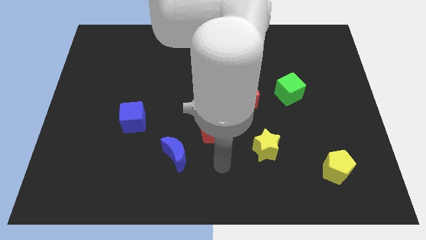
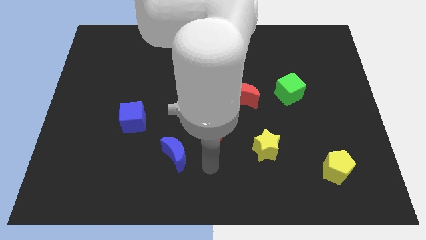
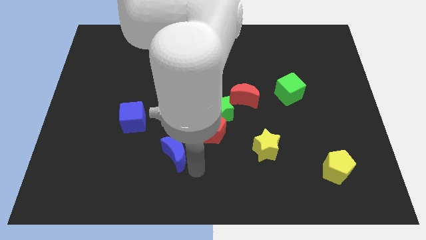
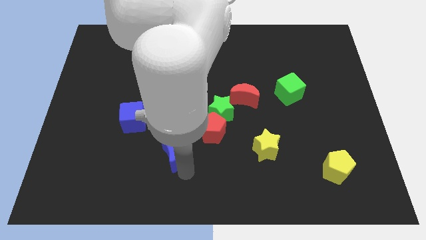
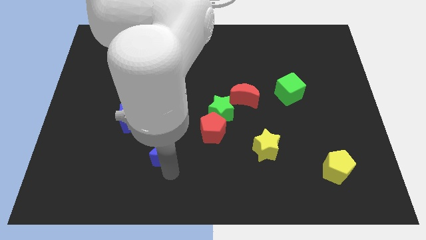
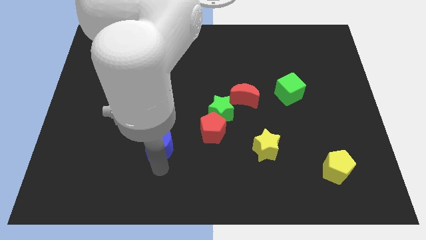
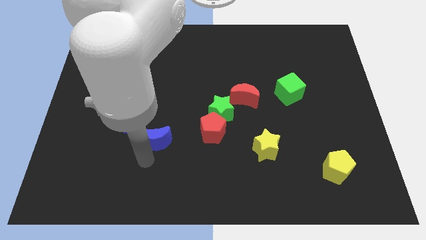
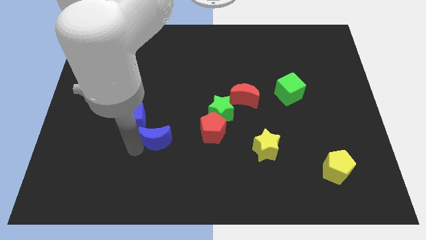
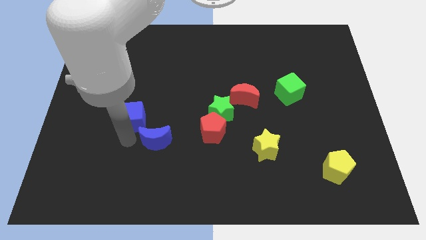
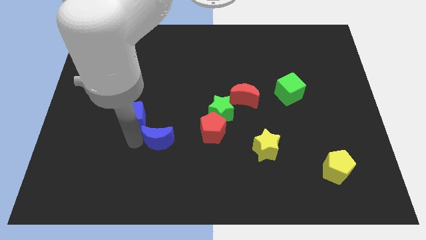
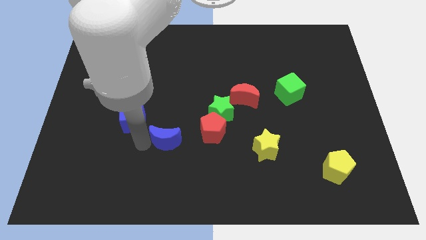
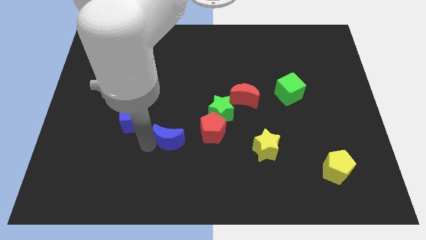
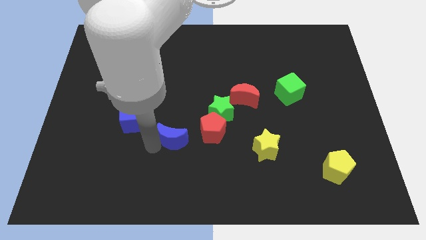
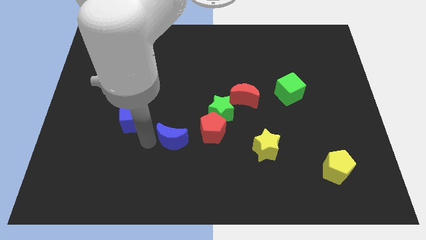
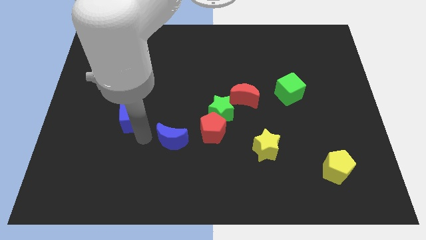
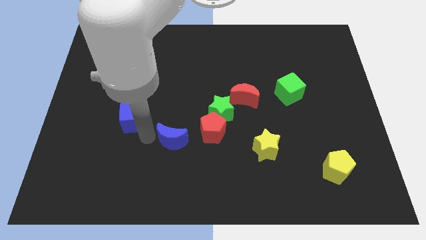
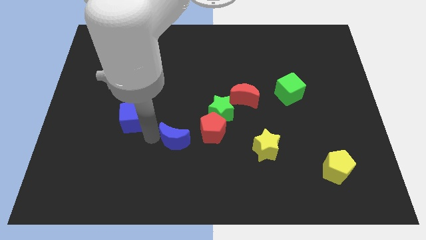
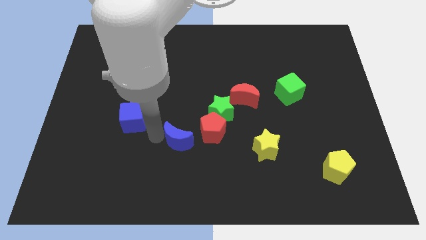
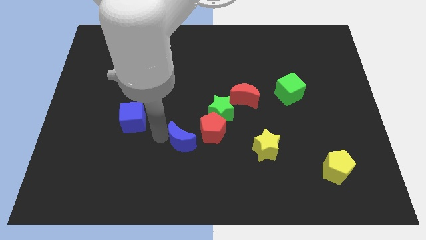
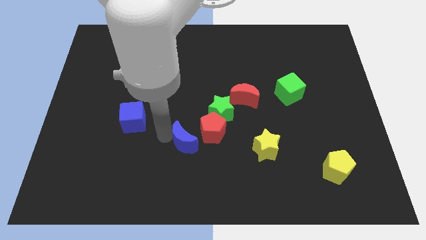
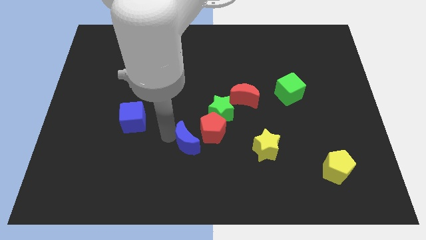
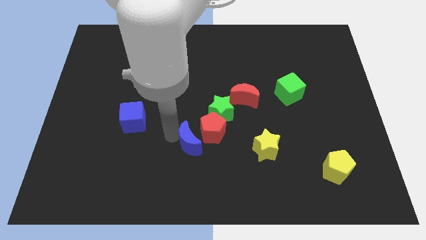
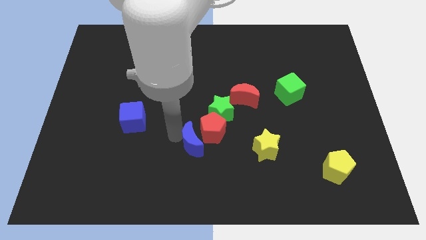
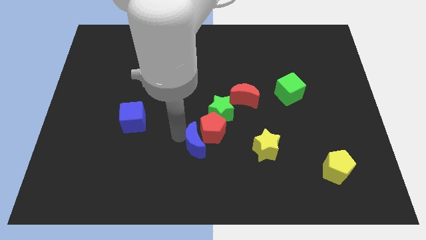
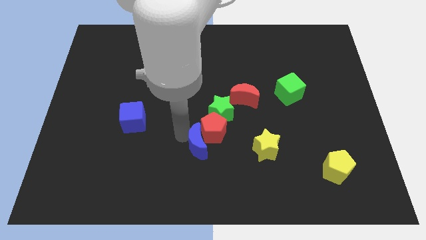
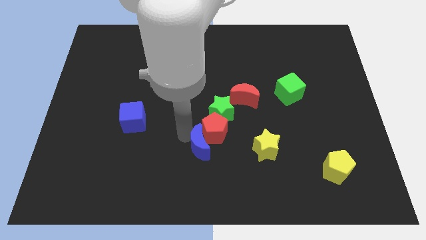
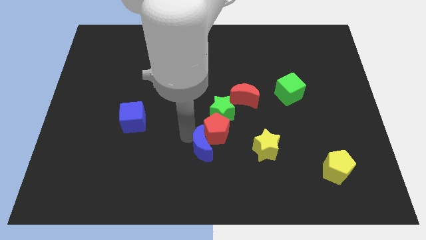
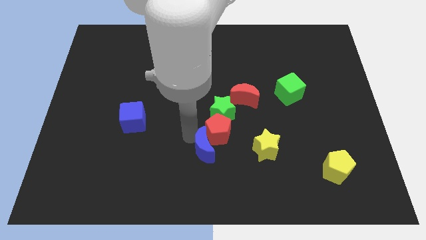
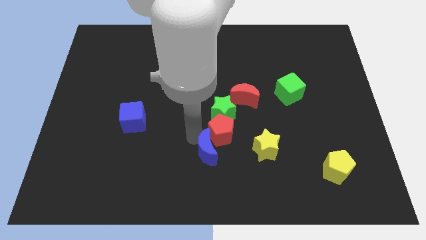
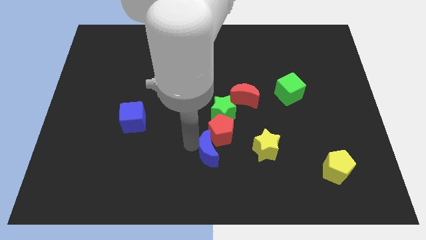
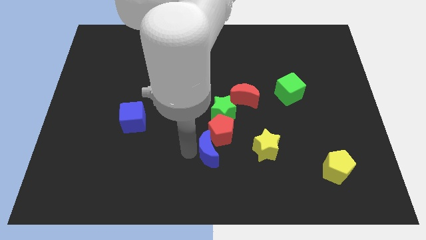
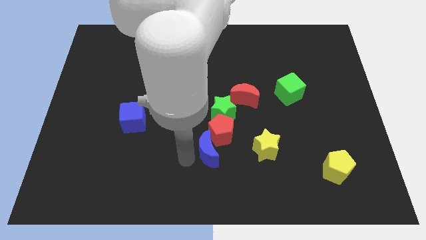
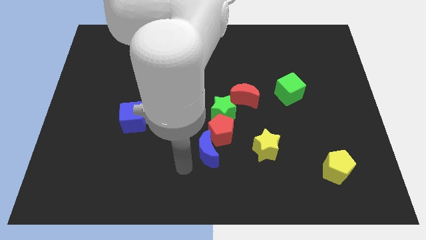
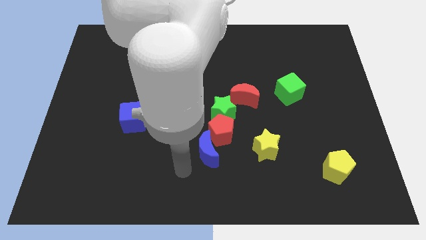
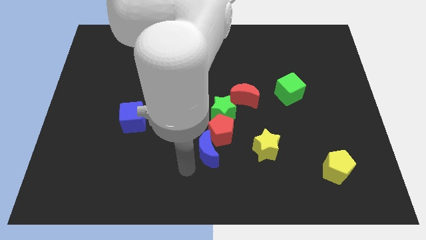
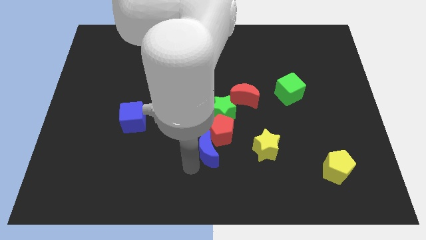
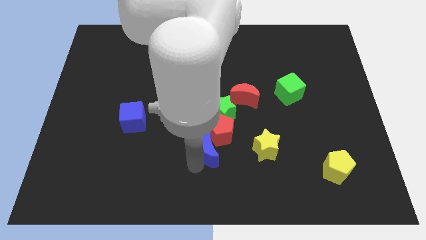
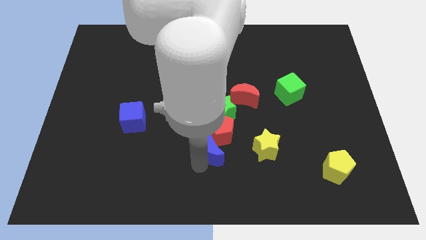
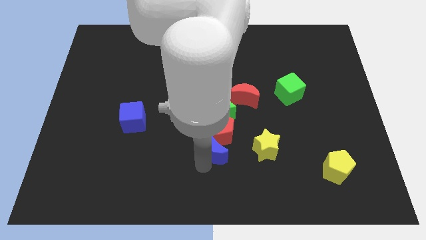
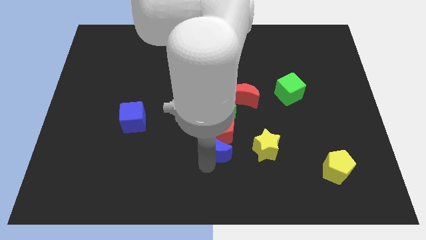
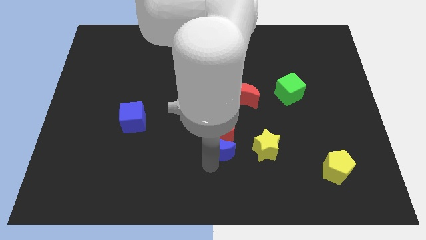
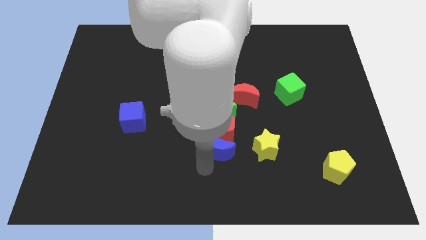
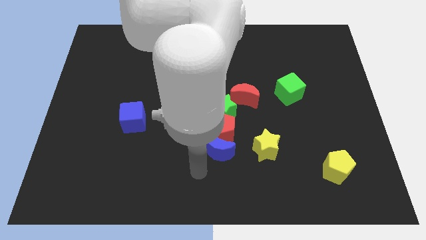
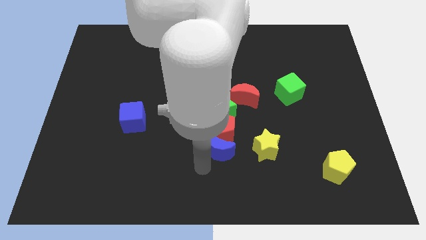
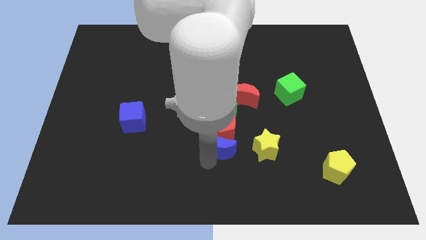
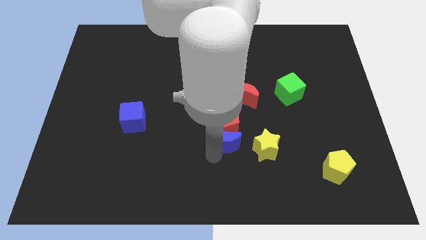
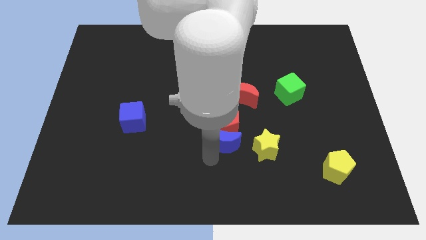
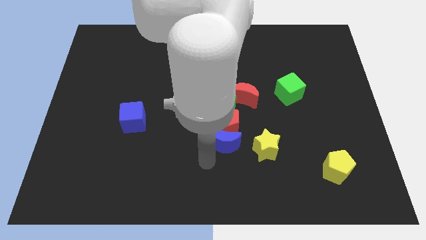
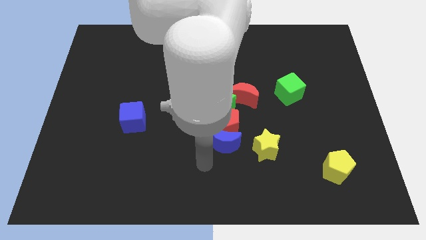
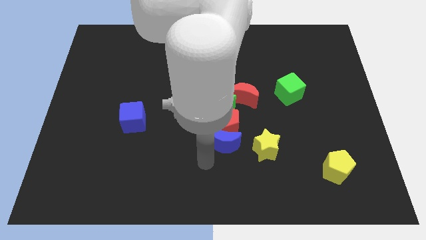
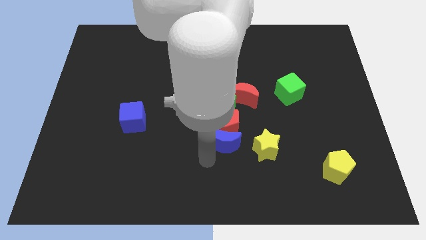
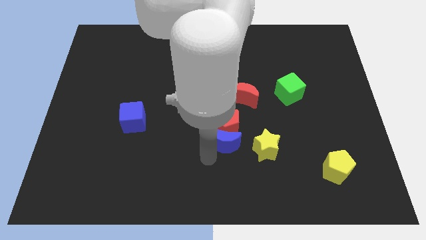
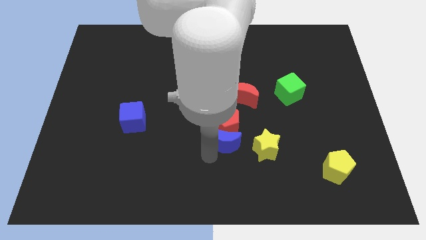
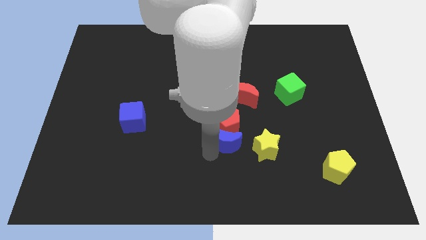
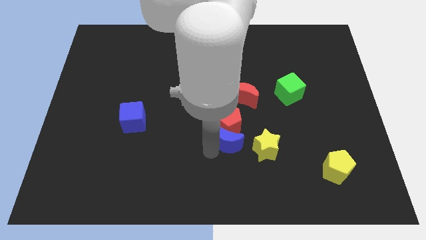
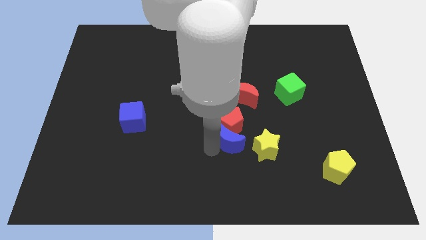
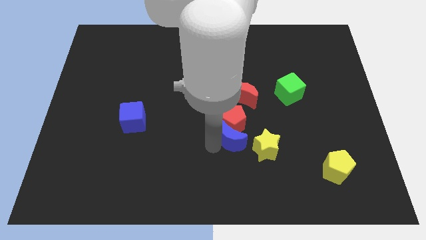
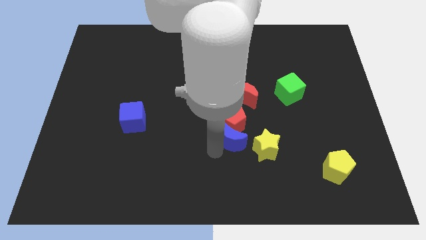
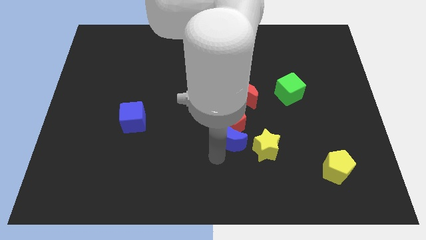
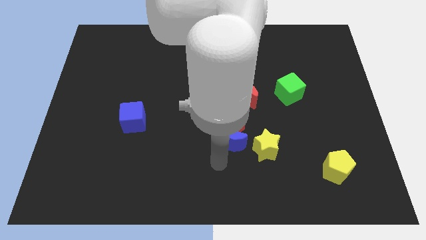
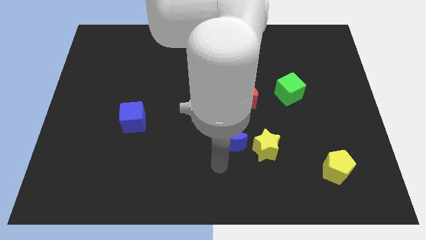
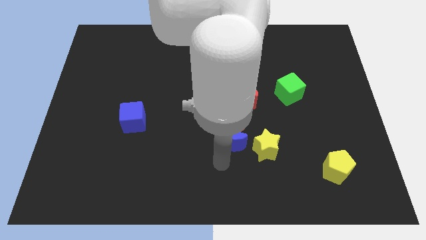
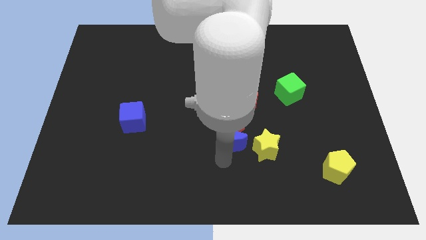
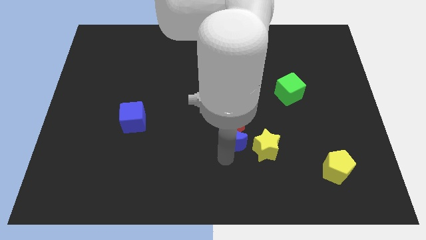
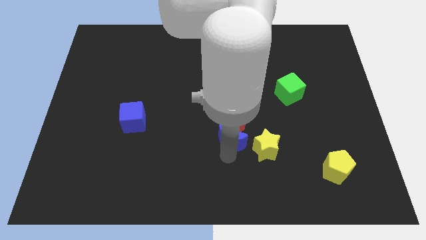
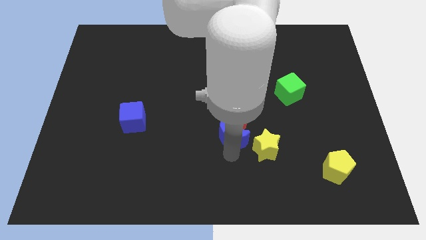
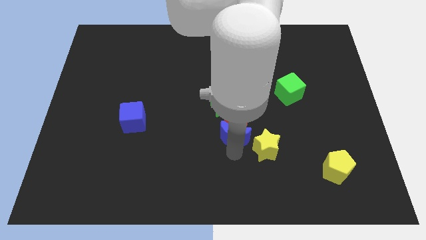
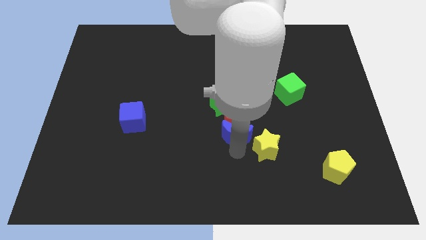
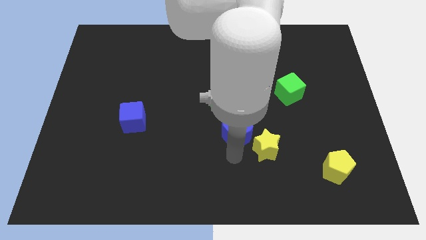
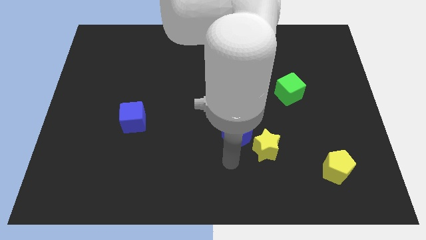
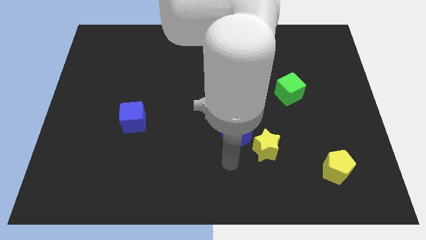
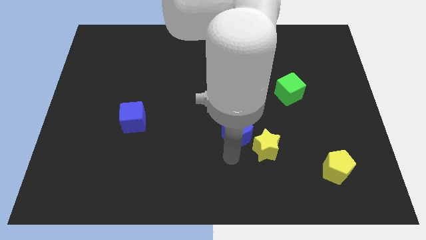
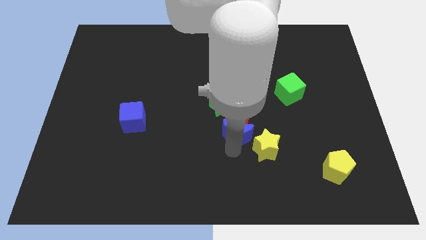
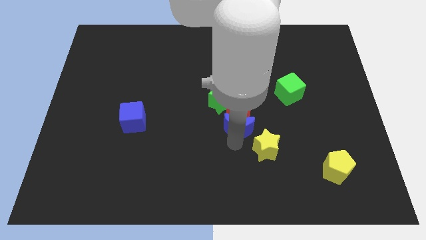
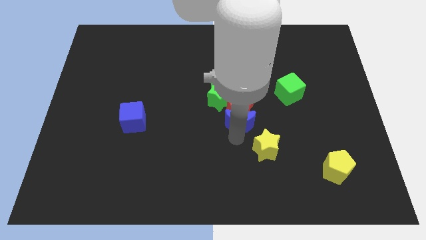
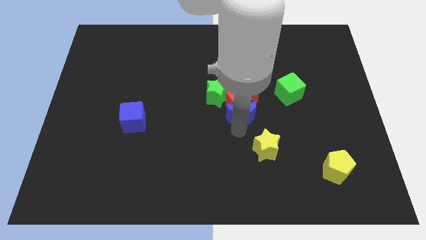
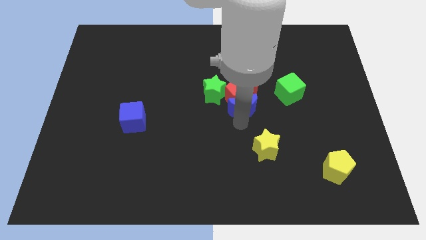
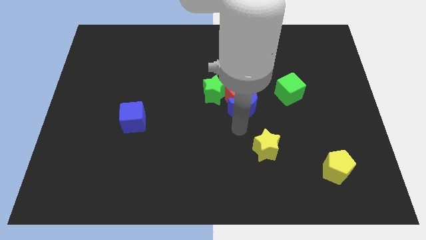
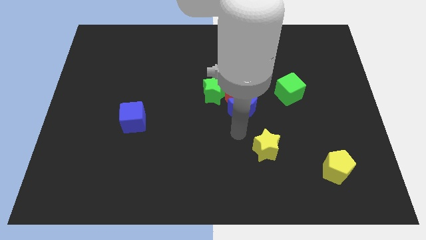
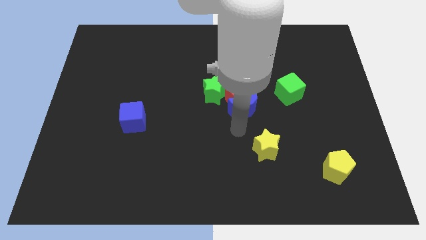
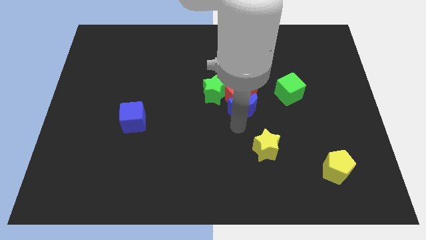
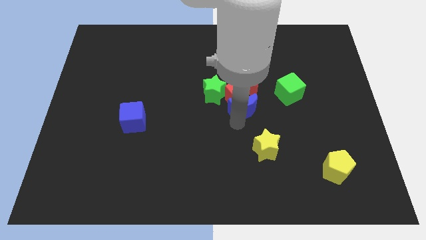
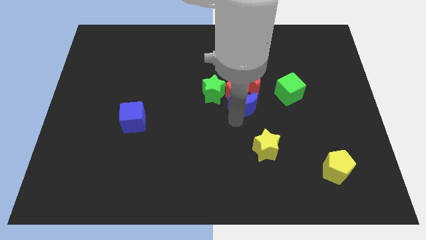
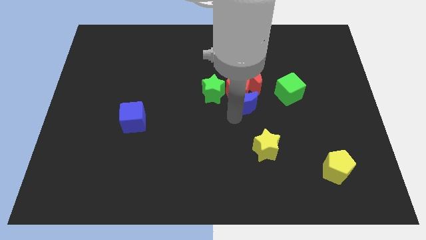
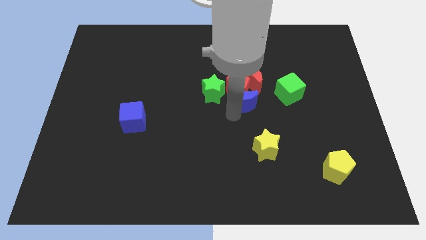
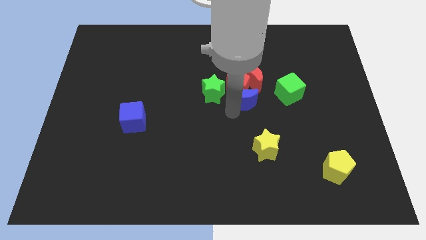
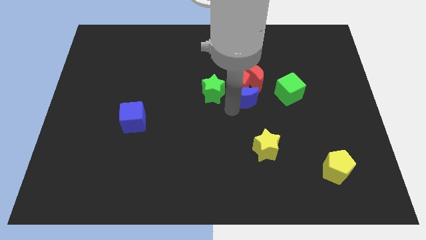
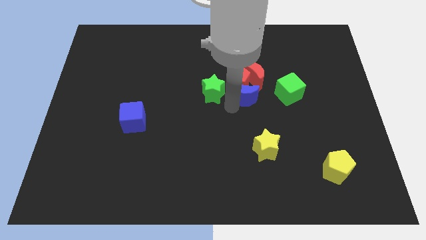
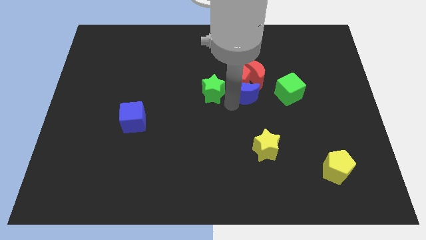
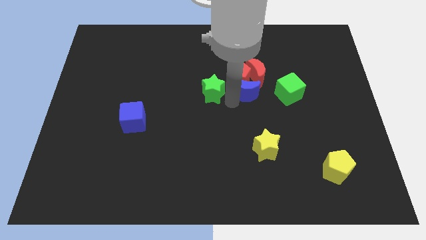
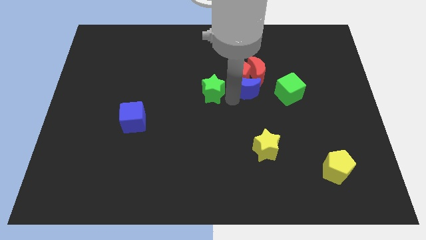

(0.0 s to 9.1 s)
move the blue moon towards the red moon
